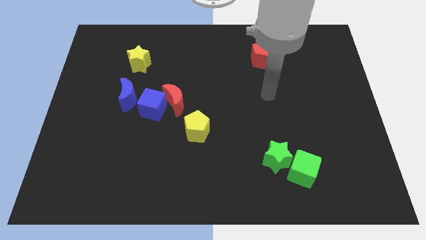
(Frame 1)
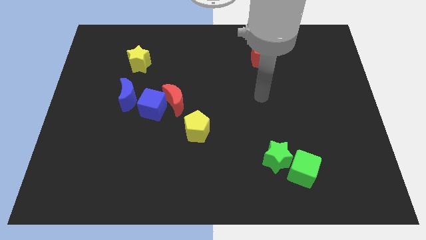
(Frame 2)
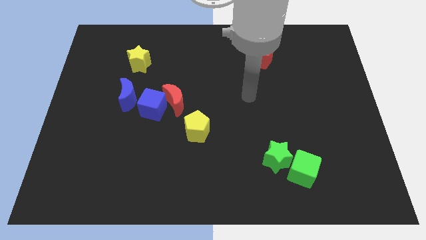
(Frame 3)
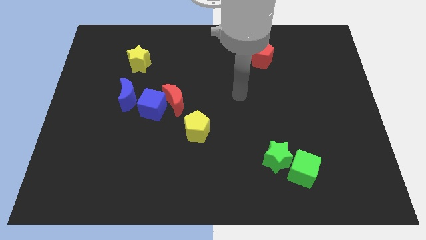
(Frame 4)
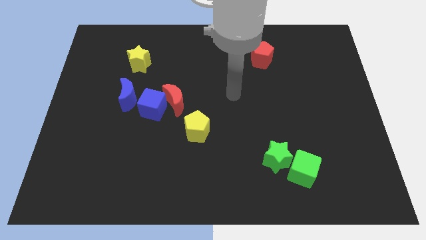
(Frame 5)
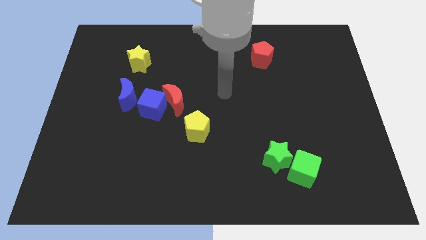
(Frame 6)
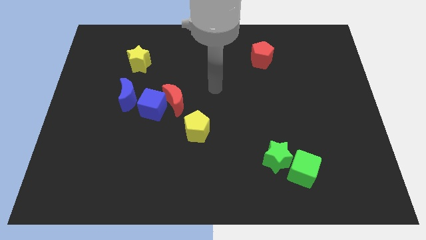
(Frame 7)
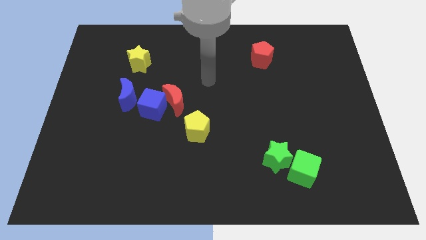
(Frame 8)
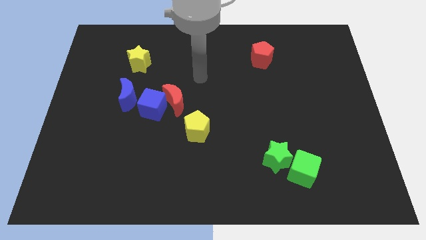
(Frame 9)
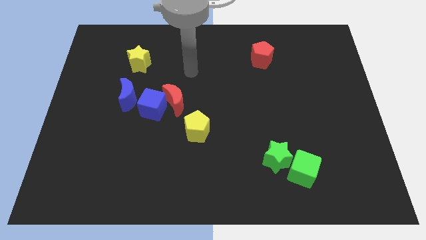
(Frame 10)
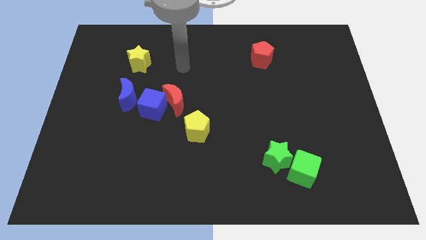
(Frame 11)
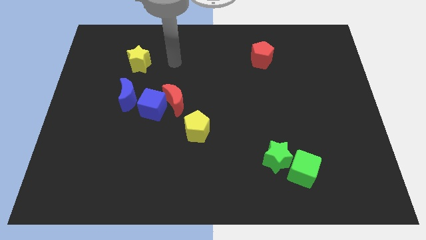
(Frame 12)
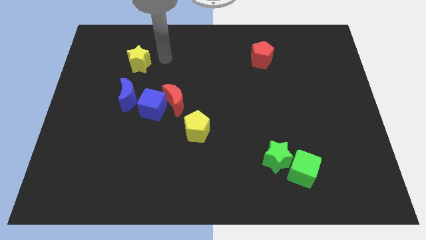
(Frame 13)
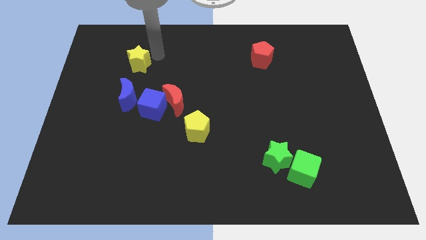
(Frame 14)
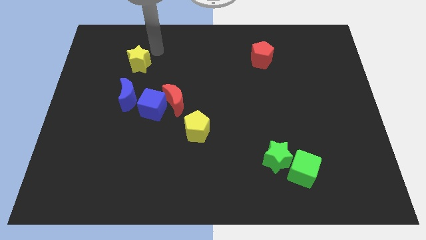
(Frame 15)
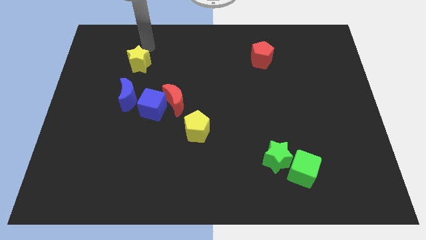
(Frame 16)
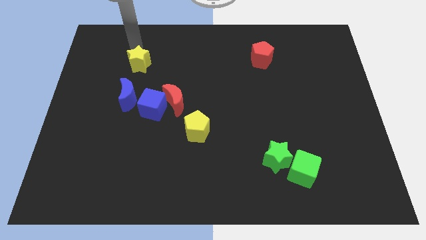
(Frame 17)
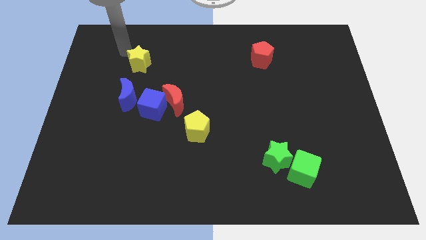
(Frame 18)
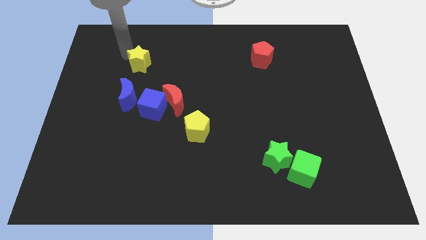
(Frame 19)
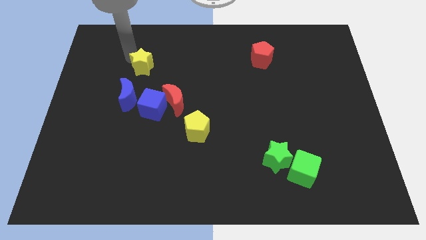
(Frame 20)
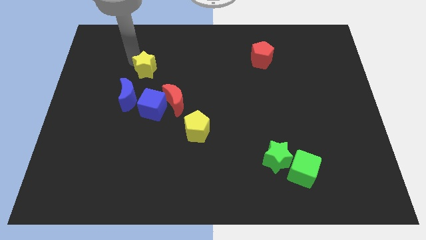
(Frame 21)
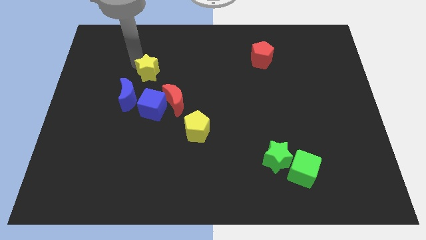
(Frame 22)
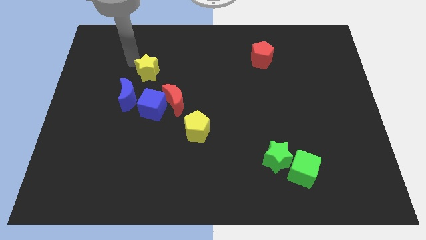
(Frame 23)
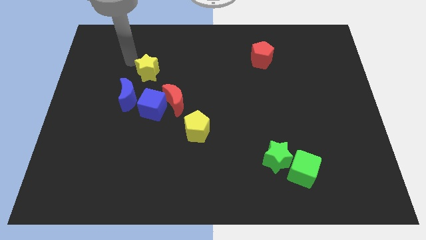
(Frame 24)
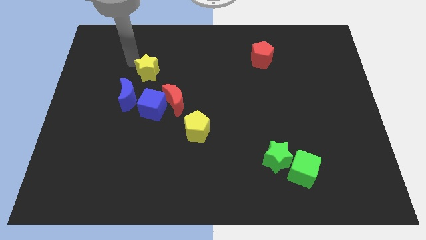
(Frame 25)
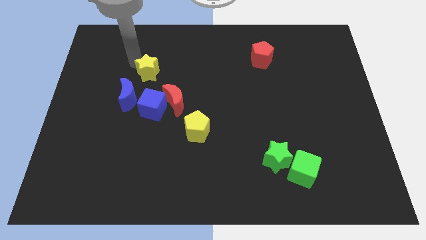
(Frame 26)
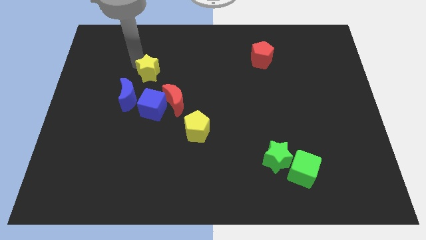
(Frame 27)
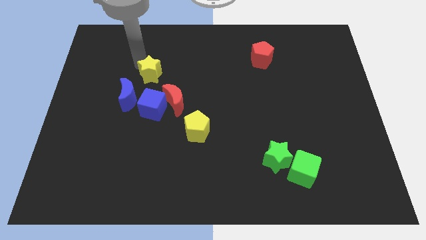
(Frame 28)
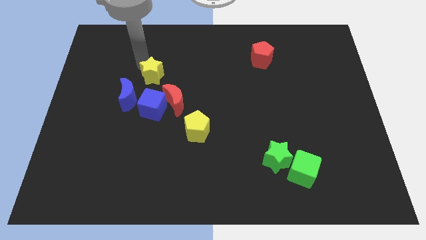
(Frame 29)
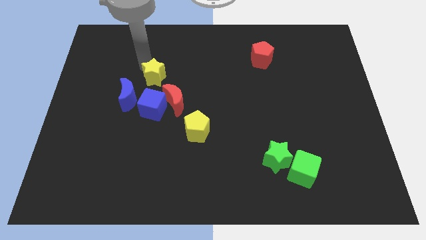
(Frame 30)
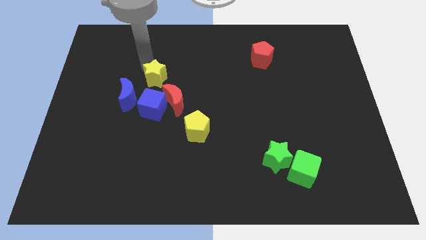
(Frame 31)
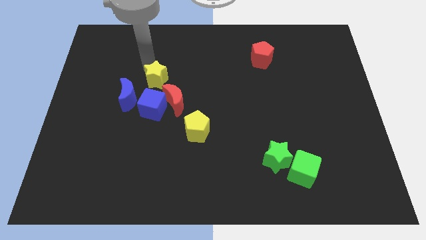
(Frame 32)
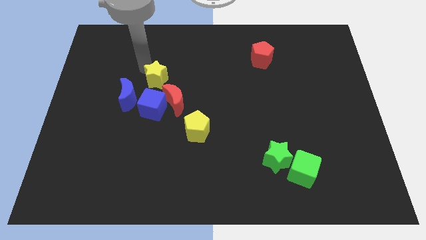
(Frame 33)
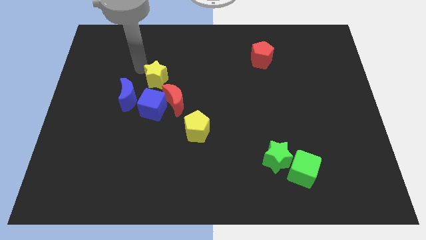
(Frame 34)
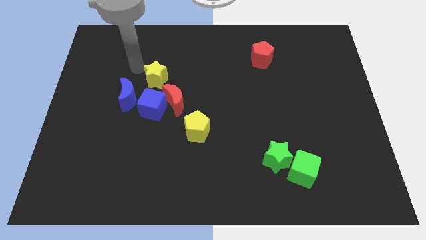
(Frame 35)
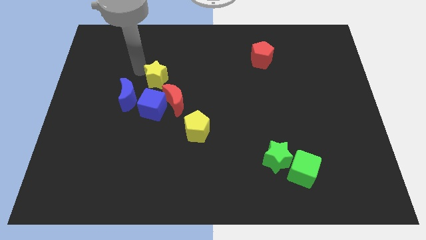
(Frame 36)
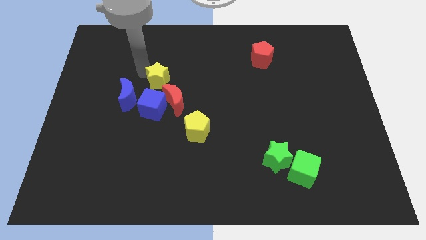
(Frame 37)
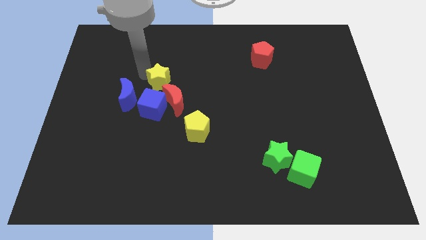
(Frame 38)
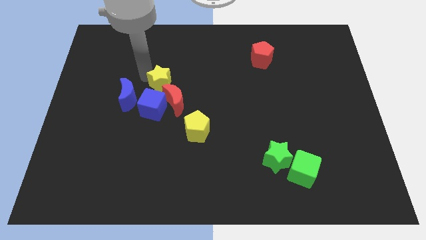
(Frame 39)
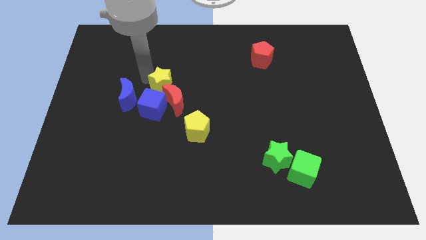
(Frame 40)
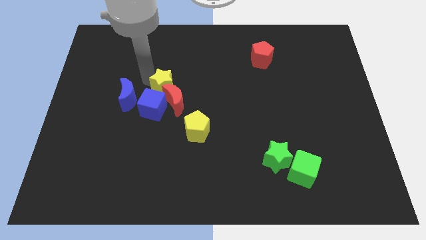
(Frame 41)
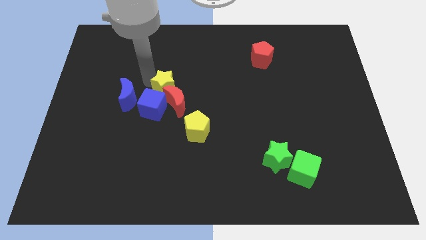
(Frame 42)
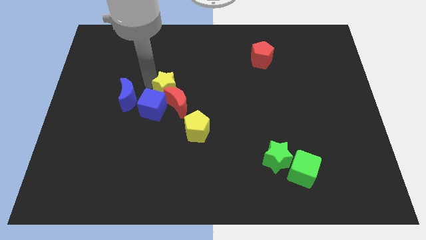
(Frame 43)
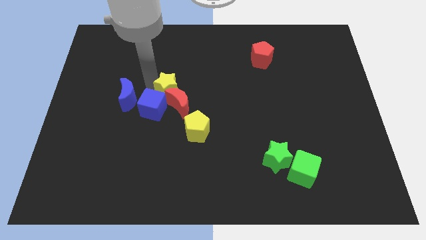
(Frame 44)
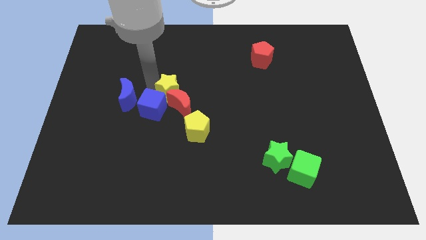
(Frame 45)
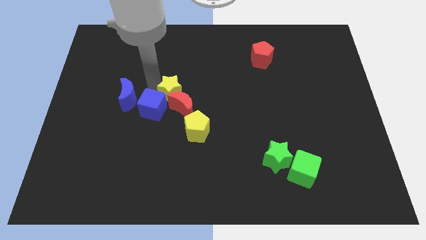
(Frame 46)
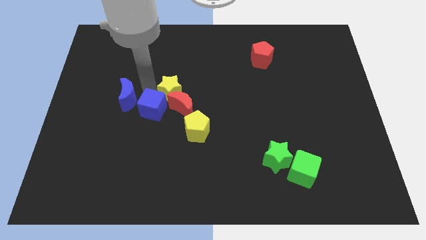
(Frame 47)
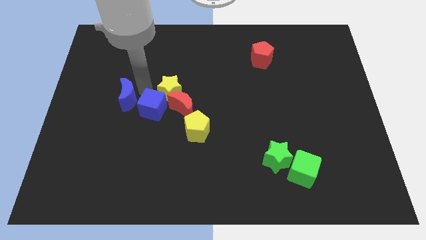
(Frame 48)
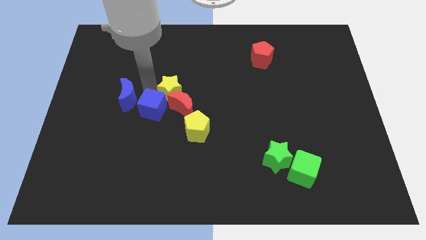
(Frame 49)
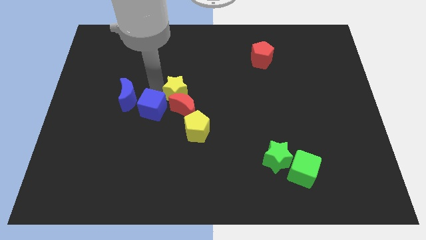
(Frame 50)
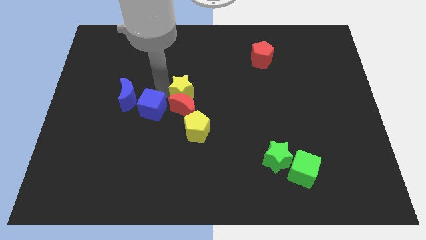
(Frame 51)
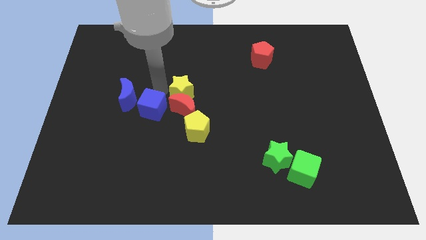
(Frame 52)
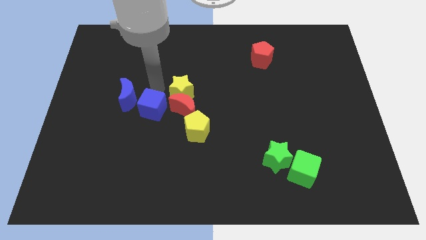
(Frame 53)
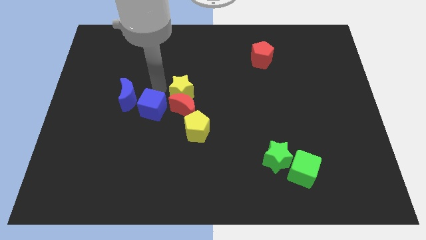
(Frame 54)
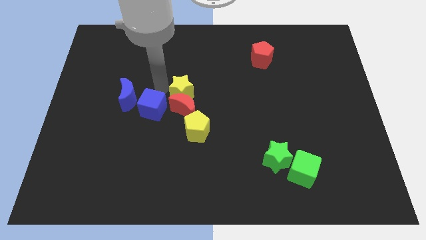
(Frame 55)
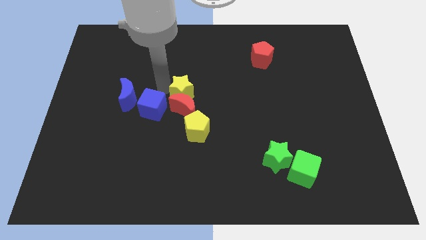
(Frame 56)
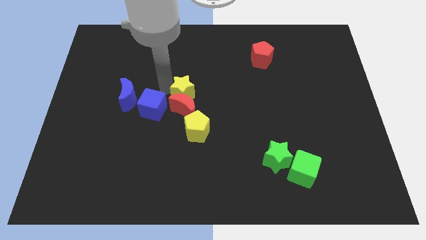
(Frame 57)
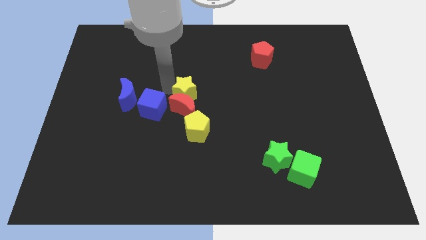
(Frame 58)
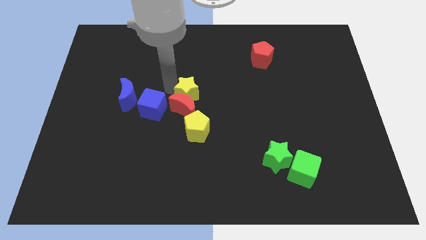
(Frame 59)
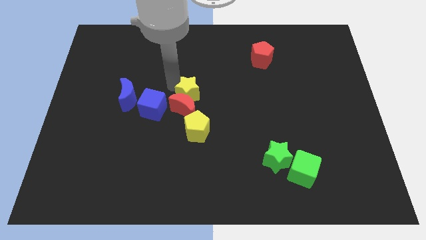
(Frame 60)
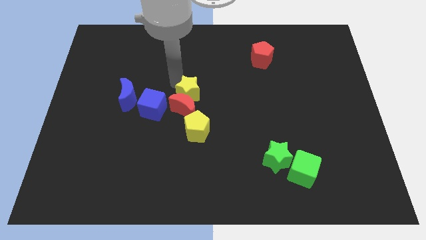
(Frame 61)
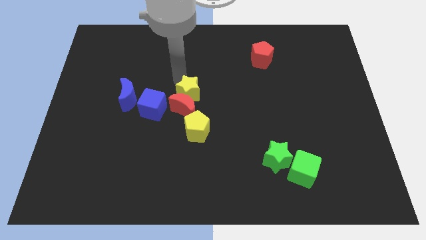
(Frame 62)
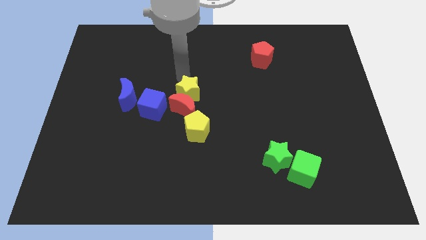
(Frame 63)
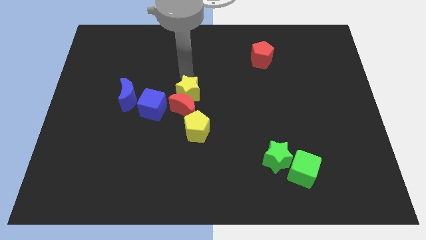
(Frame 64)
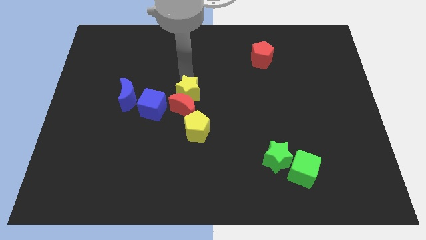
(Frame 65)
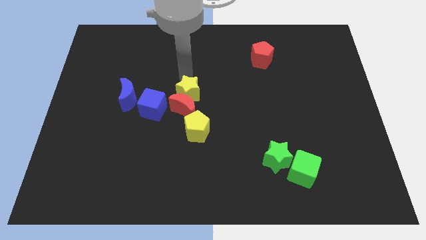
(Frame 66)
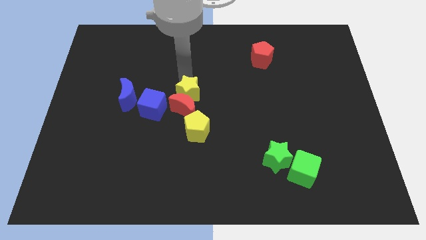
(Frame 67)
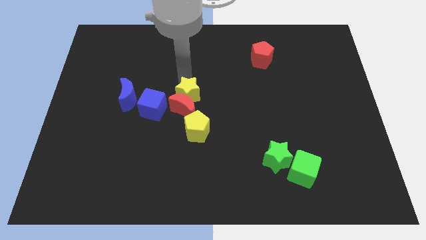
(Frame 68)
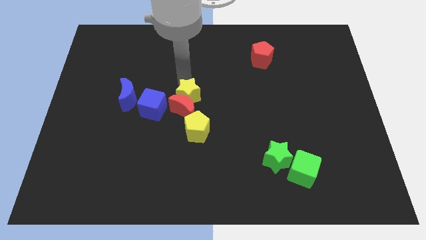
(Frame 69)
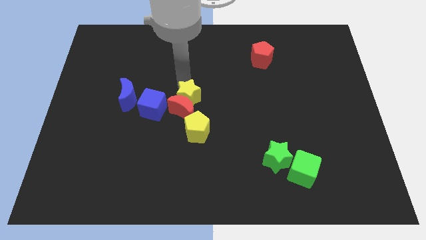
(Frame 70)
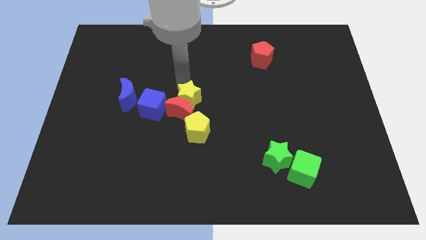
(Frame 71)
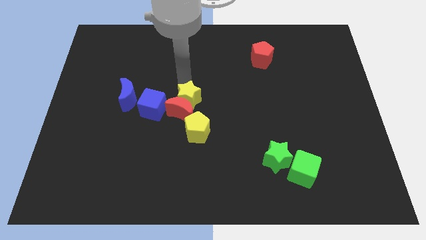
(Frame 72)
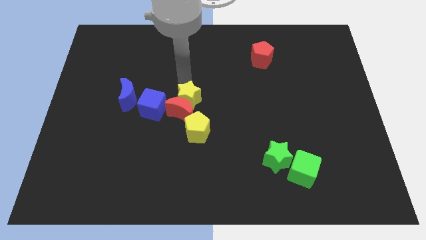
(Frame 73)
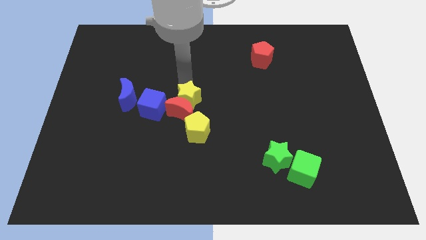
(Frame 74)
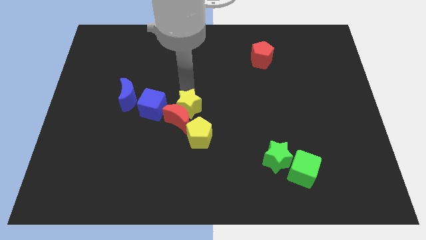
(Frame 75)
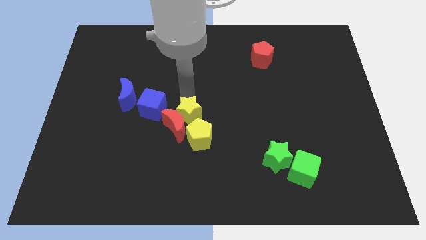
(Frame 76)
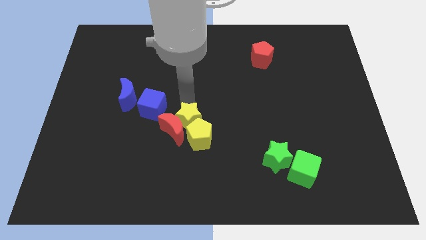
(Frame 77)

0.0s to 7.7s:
push the yellow star towards the yellow pentagon

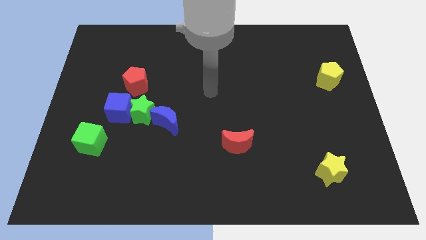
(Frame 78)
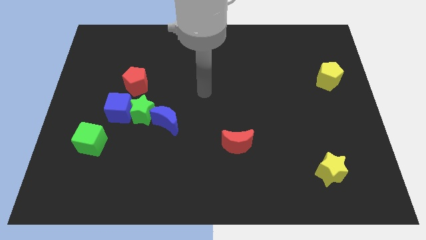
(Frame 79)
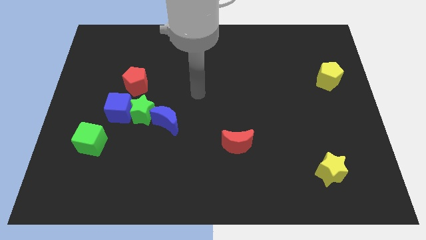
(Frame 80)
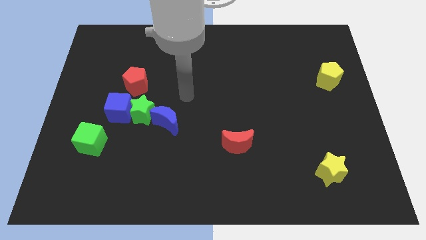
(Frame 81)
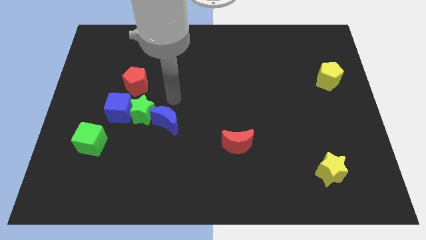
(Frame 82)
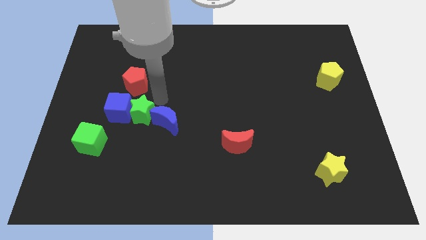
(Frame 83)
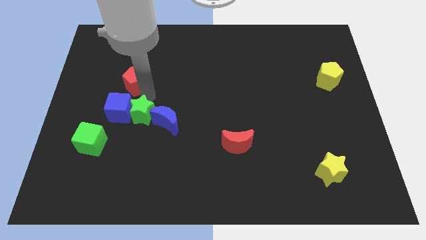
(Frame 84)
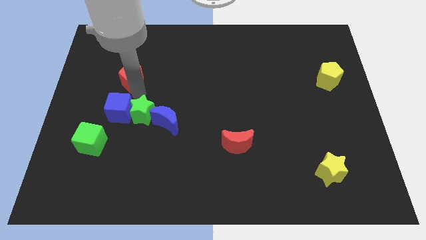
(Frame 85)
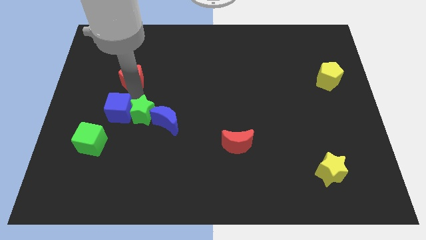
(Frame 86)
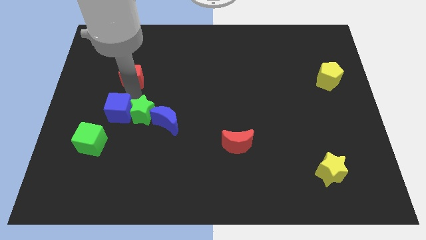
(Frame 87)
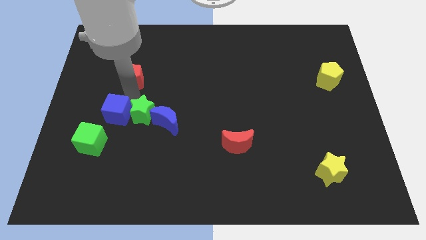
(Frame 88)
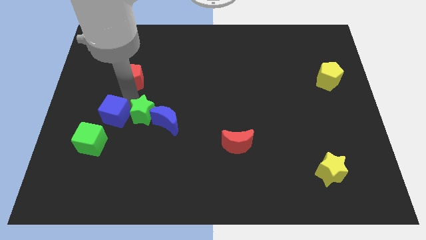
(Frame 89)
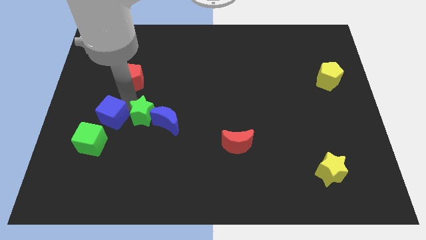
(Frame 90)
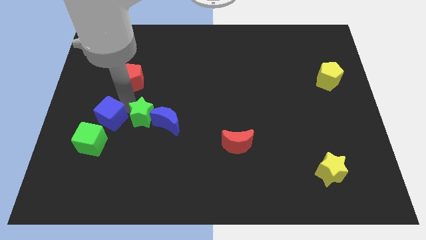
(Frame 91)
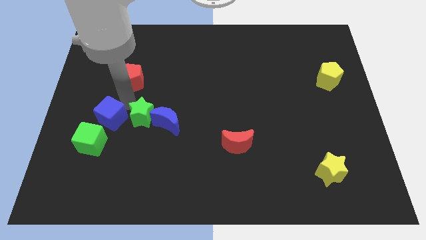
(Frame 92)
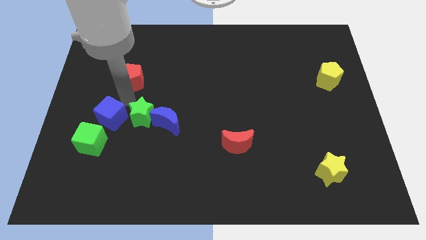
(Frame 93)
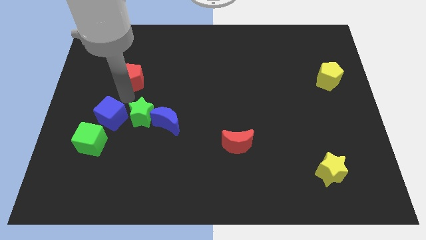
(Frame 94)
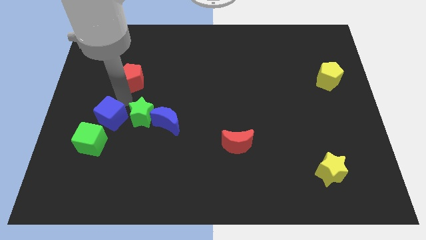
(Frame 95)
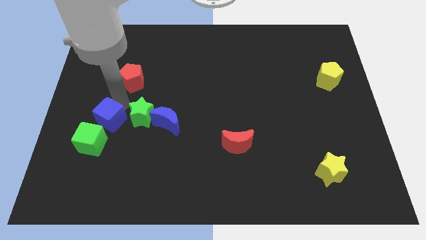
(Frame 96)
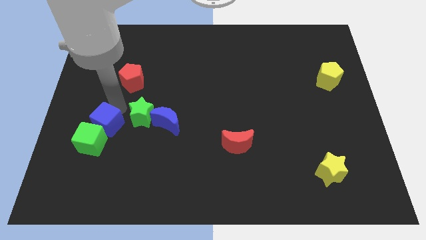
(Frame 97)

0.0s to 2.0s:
move the blue cube close to the green cube
